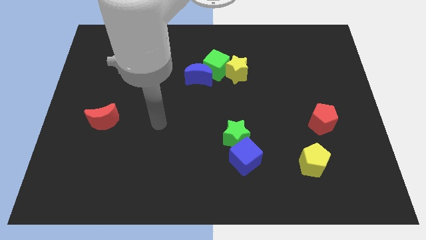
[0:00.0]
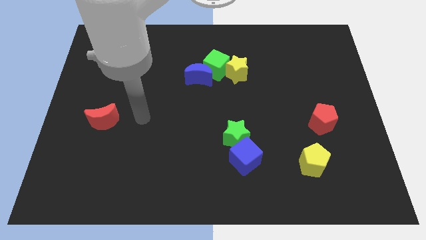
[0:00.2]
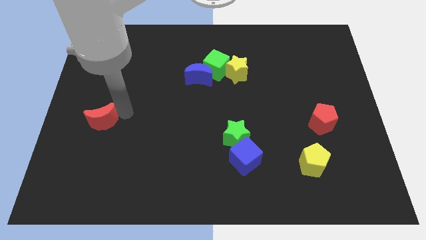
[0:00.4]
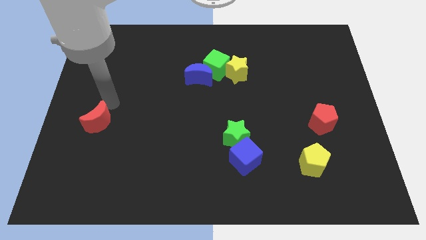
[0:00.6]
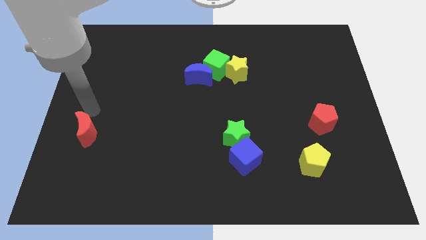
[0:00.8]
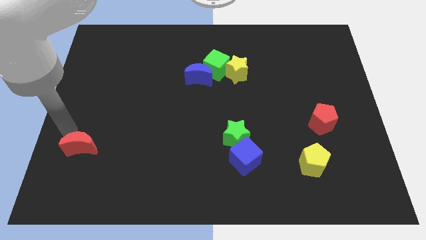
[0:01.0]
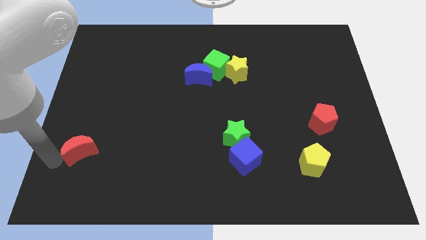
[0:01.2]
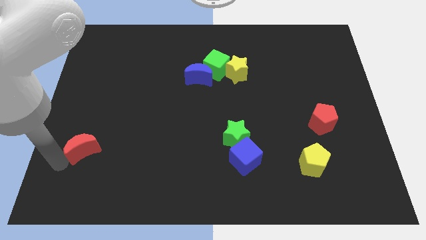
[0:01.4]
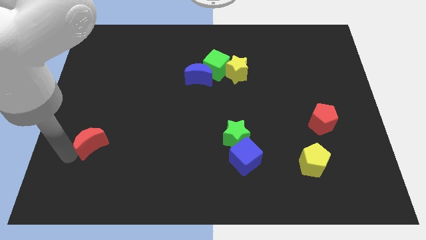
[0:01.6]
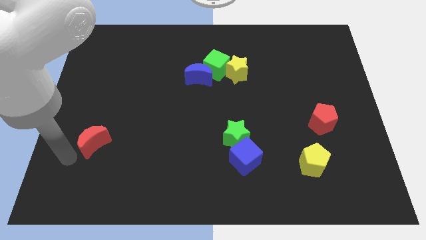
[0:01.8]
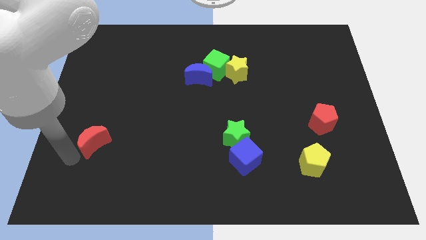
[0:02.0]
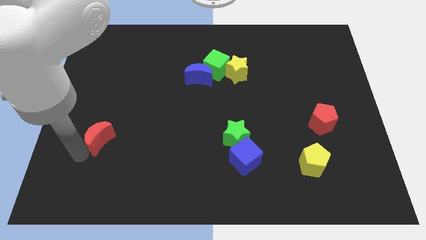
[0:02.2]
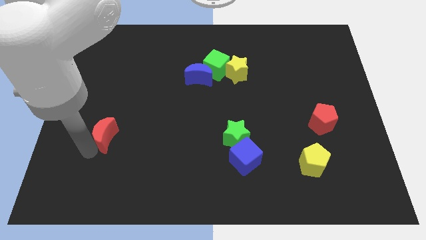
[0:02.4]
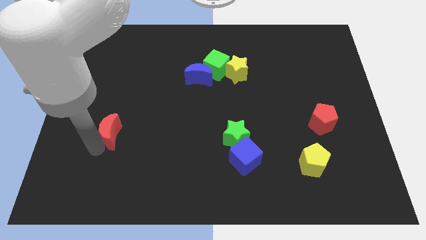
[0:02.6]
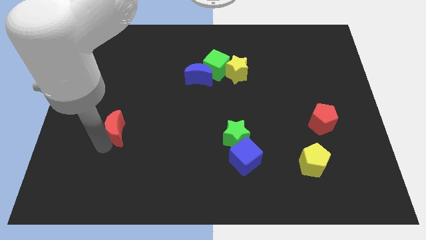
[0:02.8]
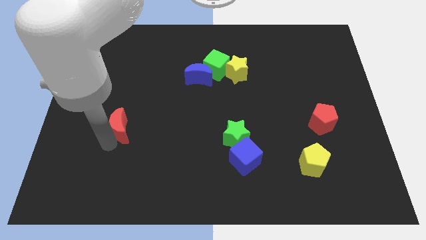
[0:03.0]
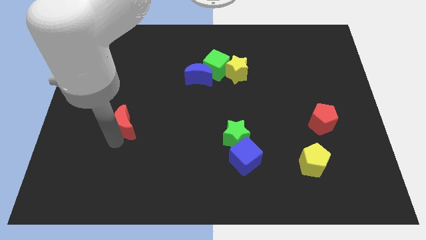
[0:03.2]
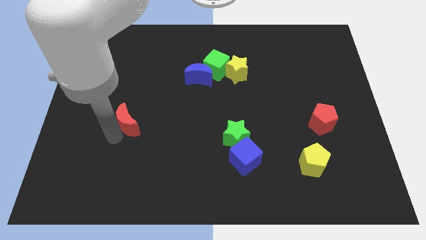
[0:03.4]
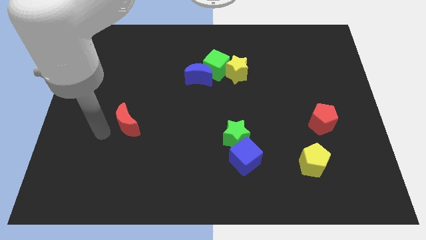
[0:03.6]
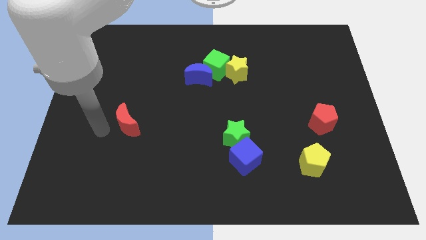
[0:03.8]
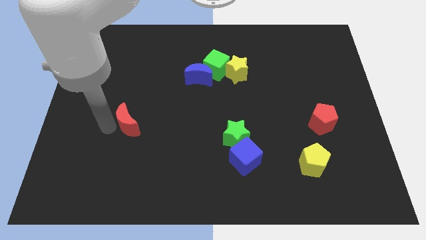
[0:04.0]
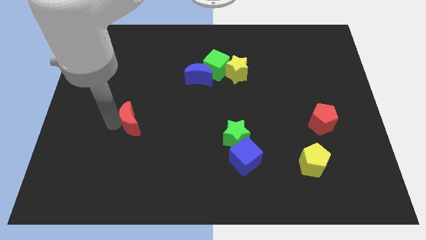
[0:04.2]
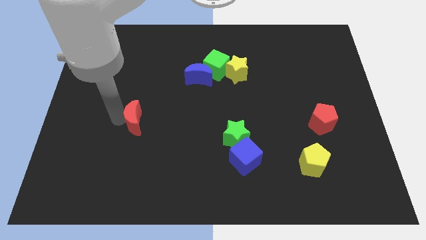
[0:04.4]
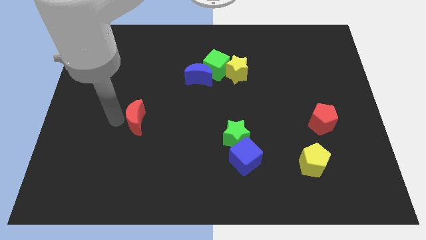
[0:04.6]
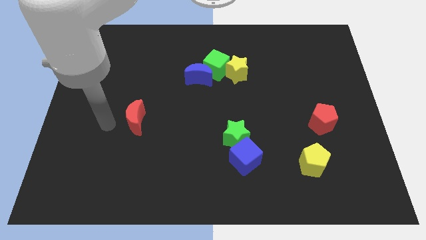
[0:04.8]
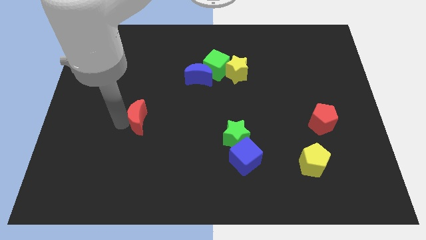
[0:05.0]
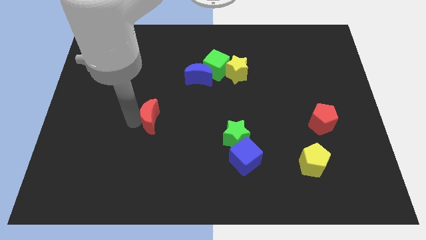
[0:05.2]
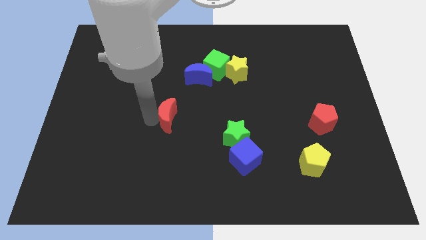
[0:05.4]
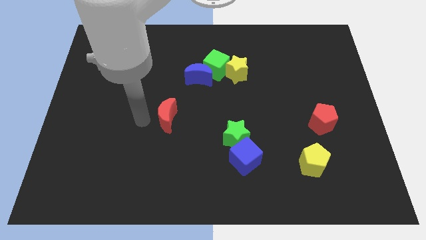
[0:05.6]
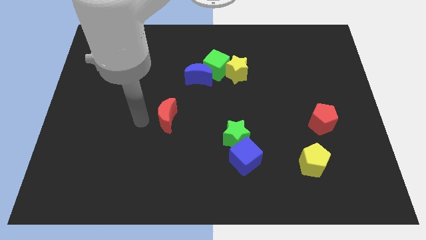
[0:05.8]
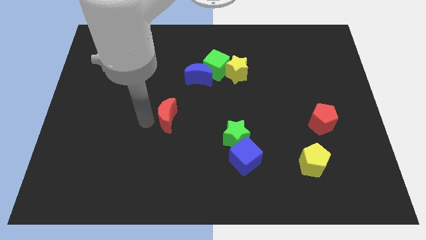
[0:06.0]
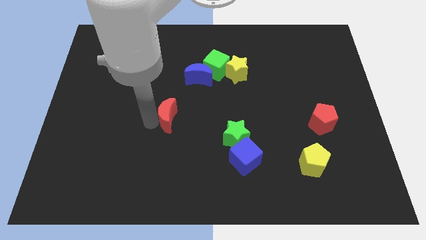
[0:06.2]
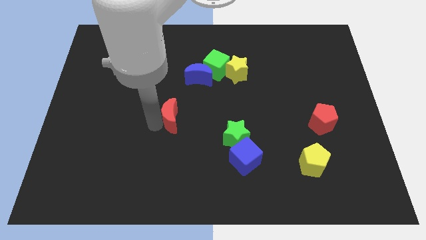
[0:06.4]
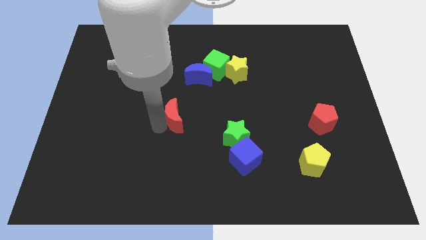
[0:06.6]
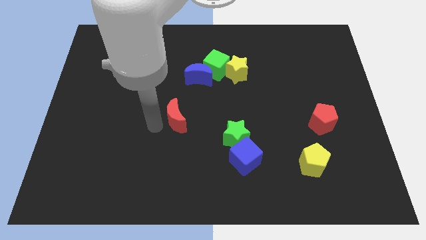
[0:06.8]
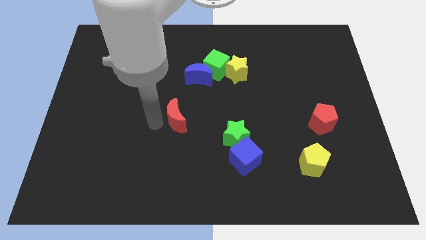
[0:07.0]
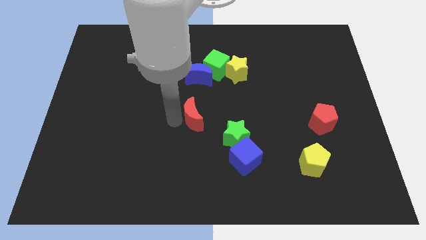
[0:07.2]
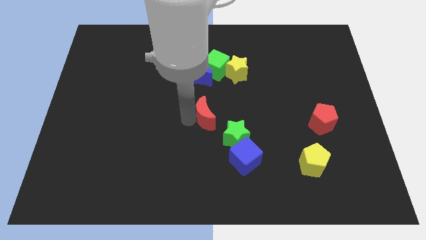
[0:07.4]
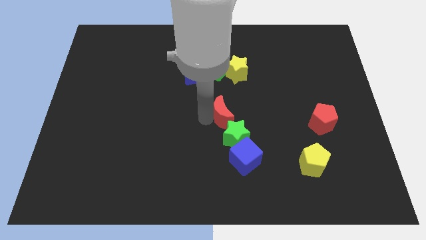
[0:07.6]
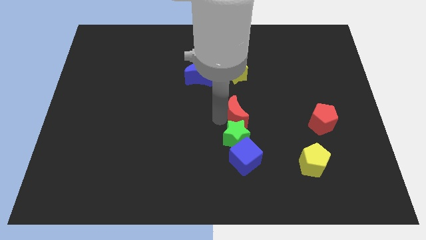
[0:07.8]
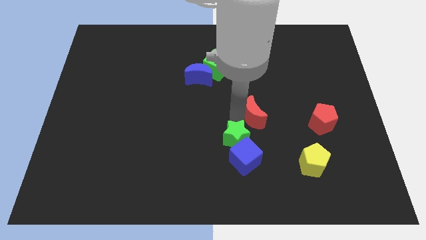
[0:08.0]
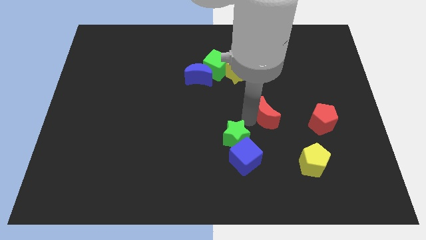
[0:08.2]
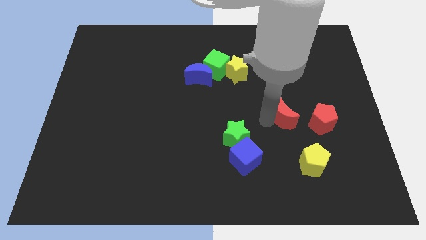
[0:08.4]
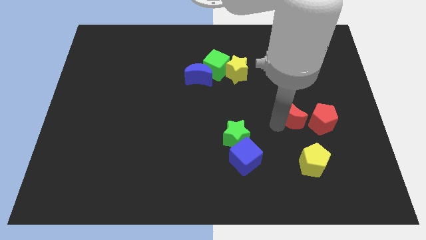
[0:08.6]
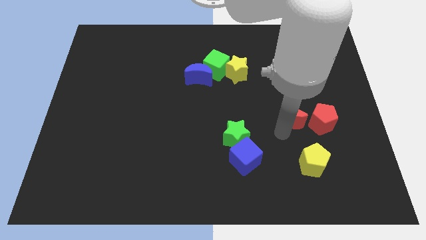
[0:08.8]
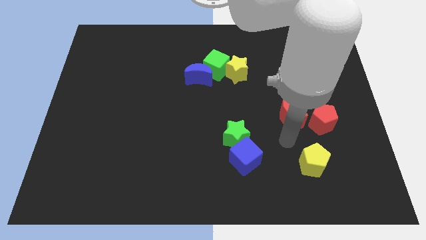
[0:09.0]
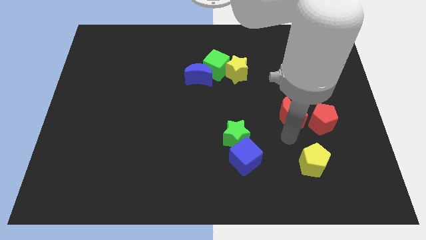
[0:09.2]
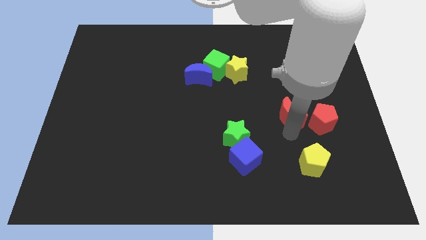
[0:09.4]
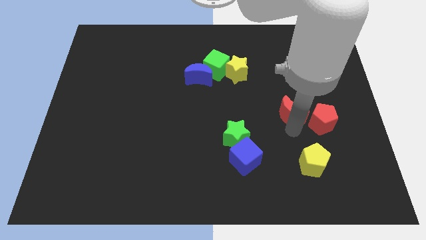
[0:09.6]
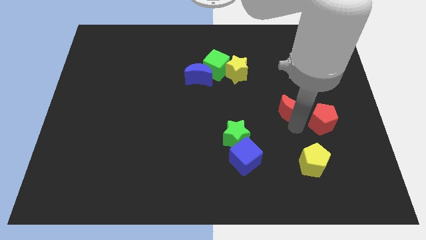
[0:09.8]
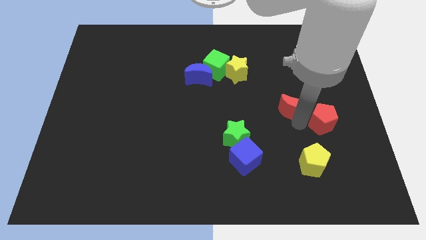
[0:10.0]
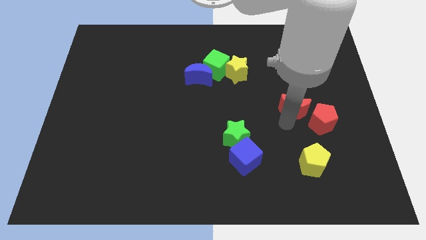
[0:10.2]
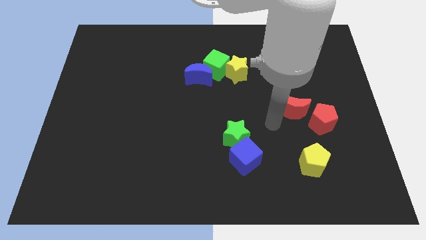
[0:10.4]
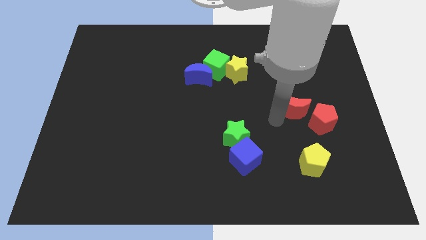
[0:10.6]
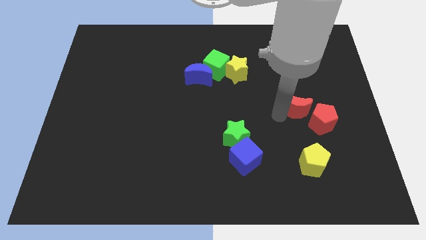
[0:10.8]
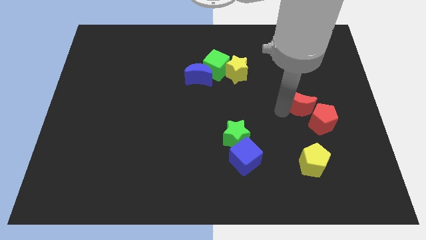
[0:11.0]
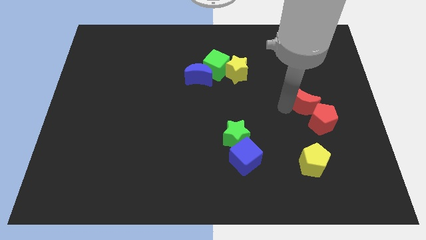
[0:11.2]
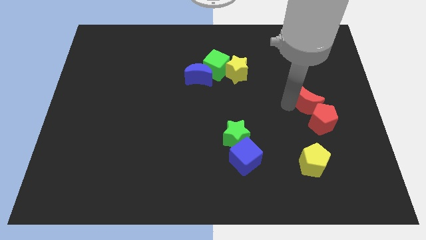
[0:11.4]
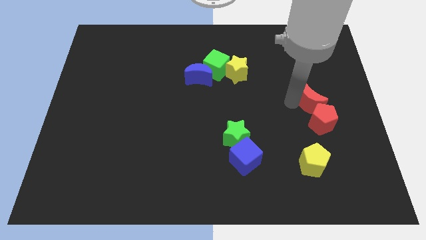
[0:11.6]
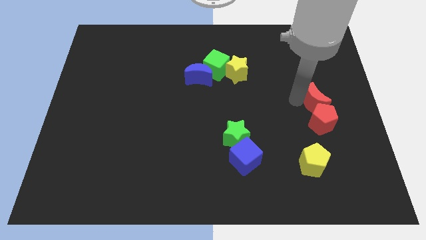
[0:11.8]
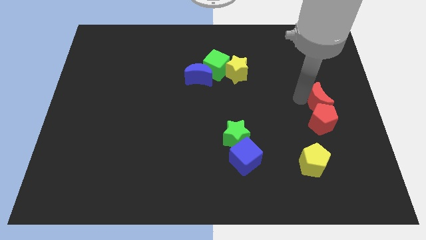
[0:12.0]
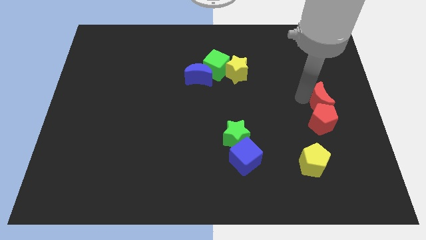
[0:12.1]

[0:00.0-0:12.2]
move the red moon to the right side

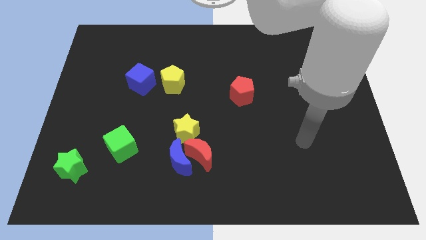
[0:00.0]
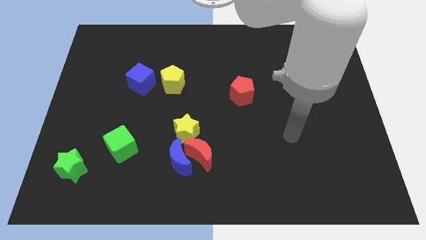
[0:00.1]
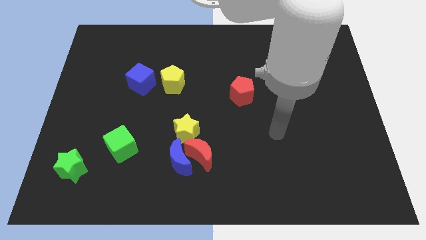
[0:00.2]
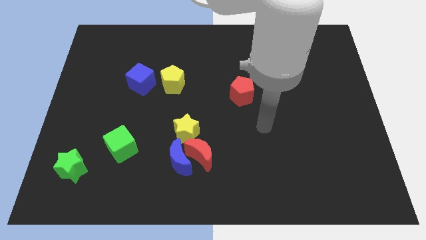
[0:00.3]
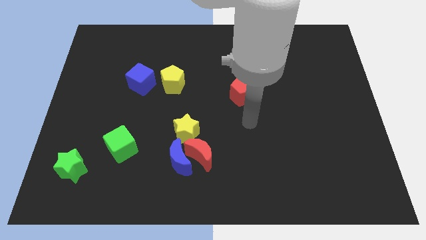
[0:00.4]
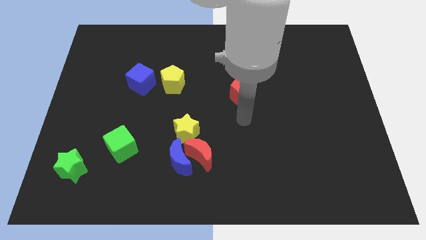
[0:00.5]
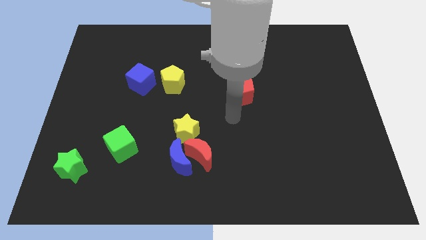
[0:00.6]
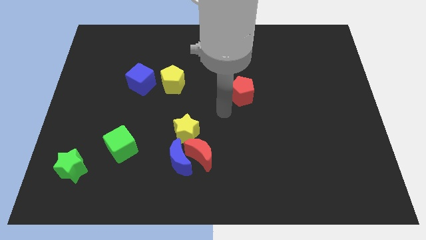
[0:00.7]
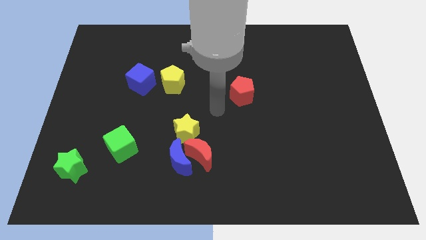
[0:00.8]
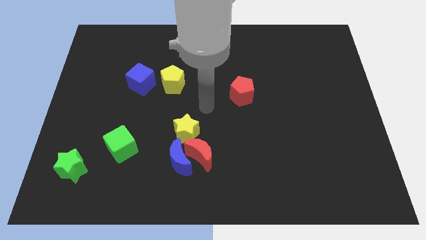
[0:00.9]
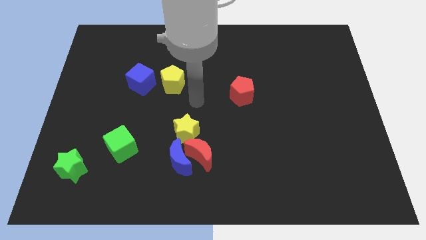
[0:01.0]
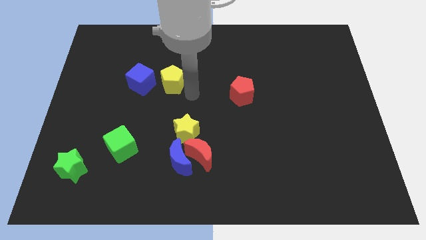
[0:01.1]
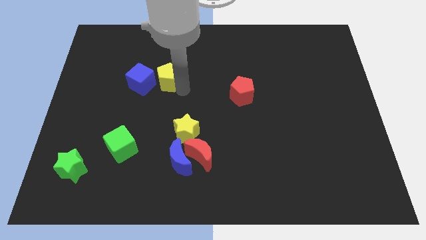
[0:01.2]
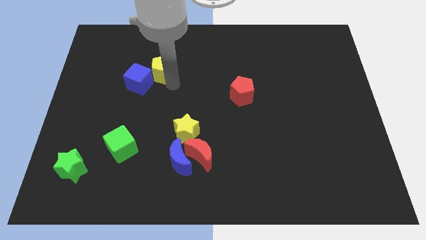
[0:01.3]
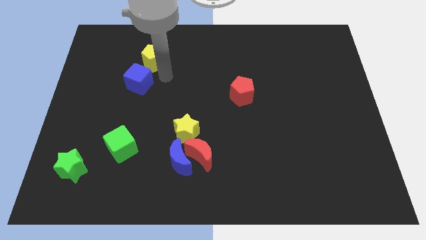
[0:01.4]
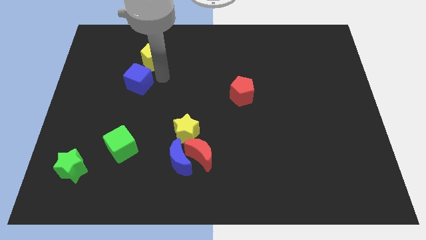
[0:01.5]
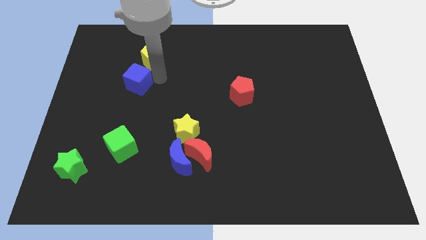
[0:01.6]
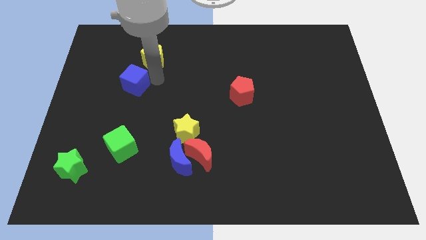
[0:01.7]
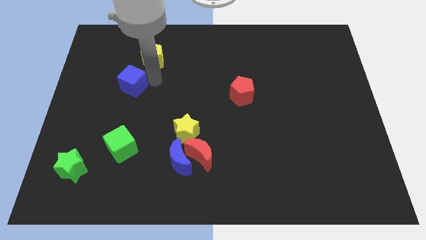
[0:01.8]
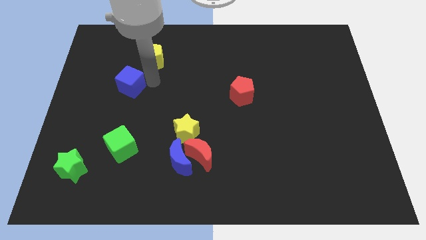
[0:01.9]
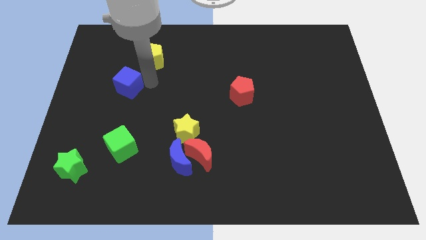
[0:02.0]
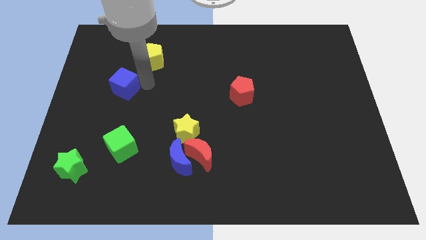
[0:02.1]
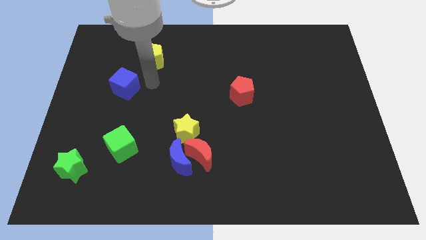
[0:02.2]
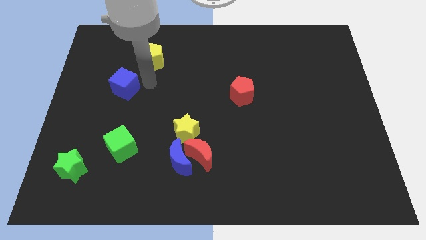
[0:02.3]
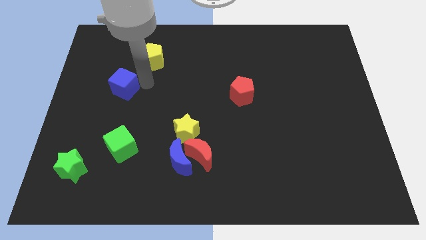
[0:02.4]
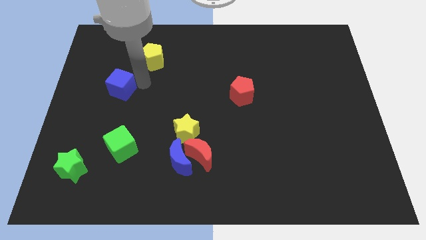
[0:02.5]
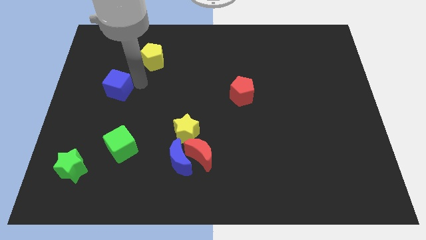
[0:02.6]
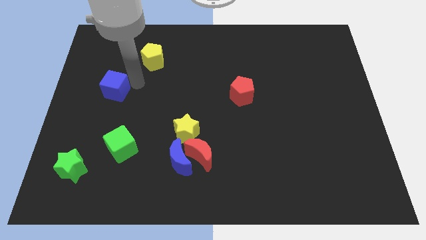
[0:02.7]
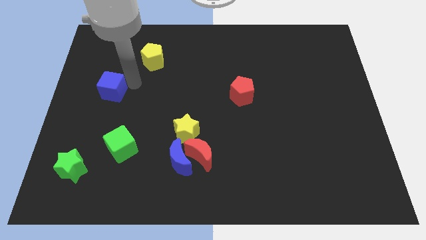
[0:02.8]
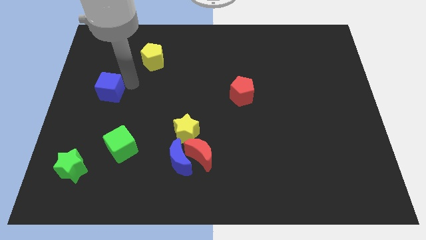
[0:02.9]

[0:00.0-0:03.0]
move the blue cube to the center left
